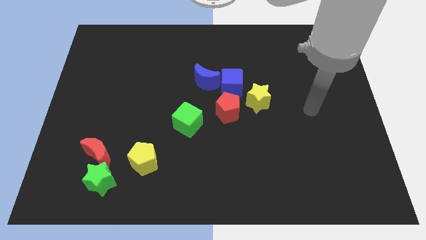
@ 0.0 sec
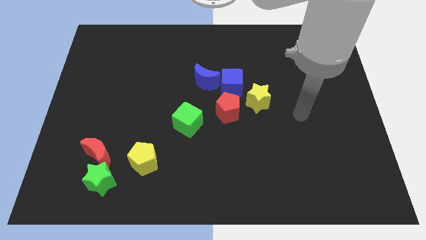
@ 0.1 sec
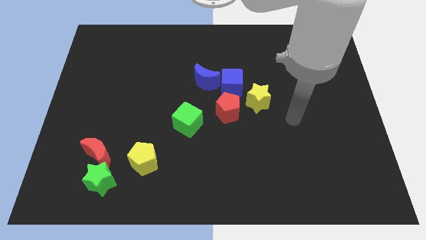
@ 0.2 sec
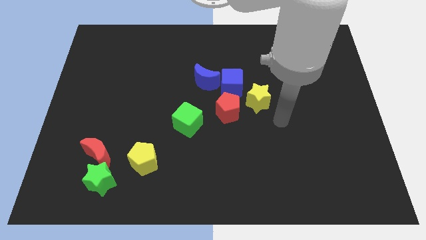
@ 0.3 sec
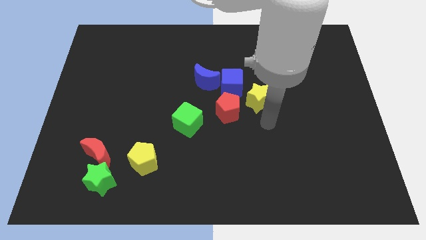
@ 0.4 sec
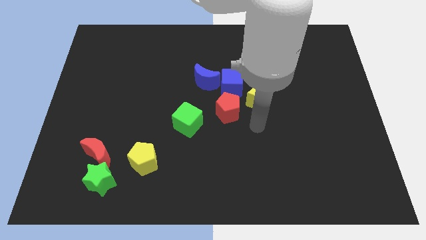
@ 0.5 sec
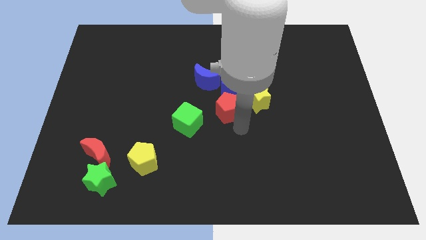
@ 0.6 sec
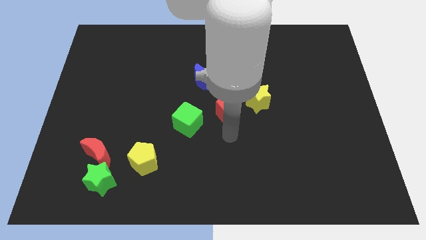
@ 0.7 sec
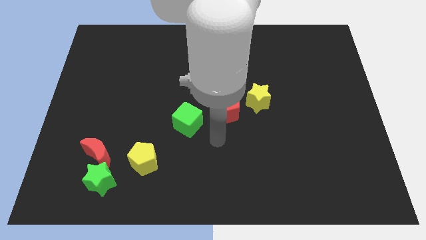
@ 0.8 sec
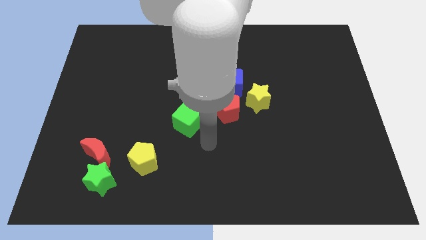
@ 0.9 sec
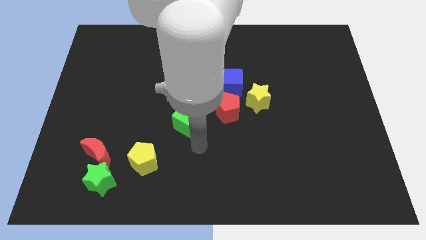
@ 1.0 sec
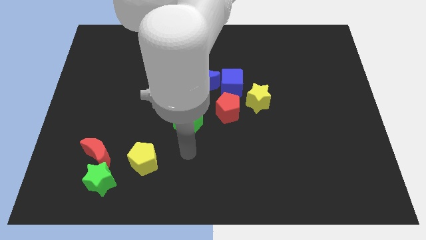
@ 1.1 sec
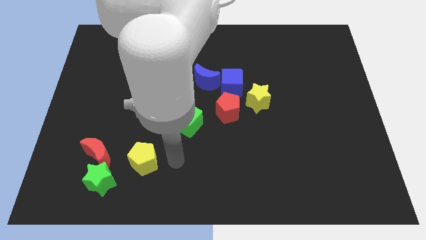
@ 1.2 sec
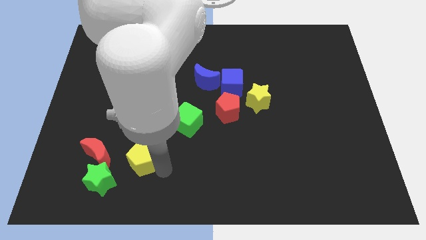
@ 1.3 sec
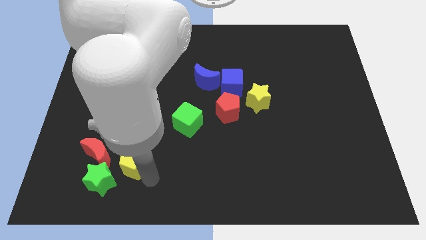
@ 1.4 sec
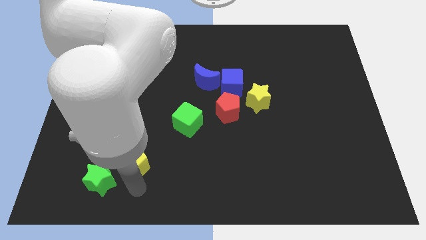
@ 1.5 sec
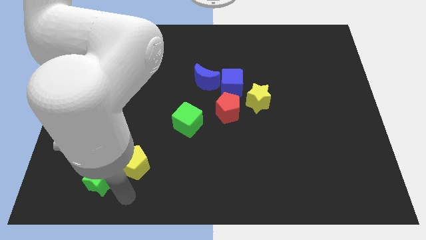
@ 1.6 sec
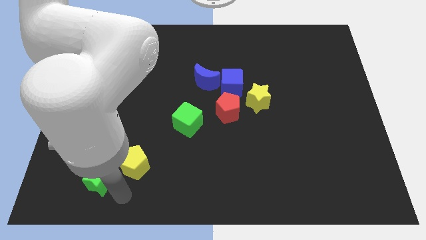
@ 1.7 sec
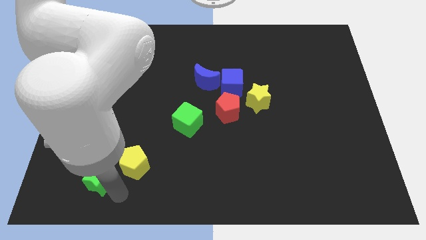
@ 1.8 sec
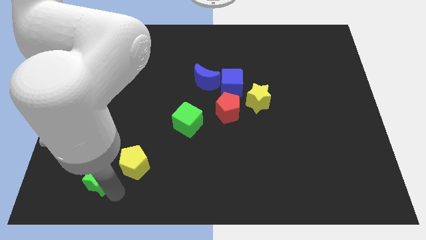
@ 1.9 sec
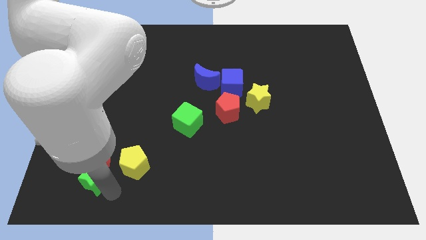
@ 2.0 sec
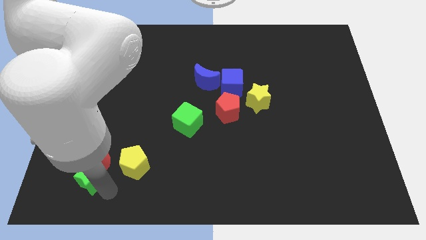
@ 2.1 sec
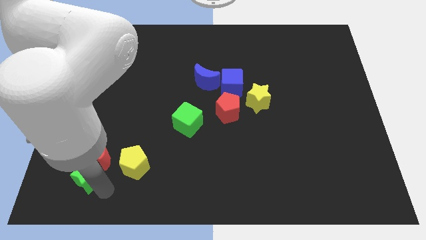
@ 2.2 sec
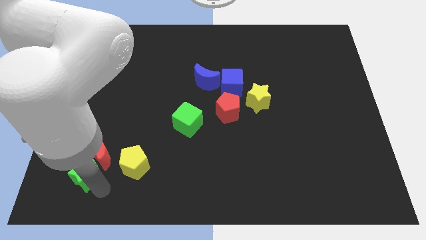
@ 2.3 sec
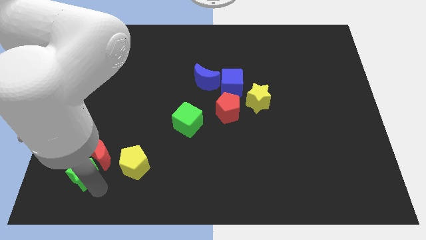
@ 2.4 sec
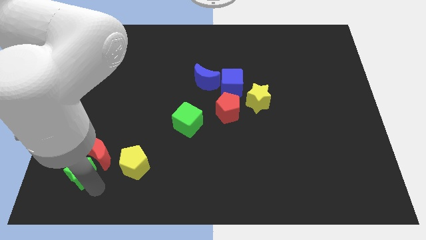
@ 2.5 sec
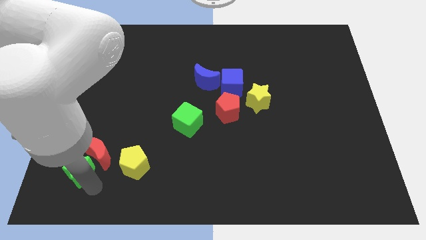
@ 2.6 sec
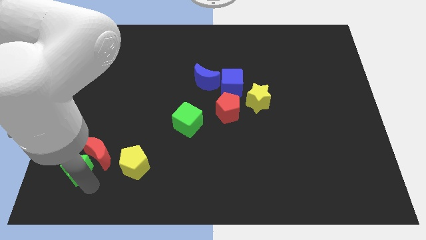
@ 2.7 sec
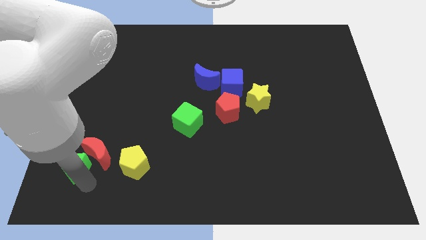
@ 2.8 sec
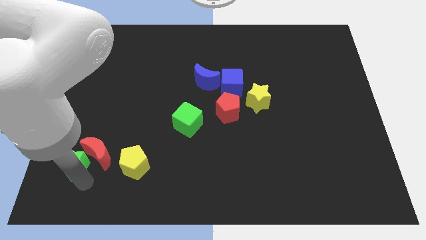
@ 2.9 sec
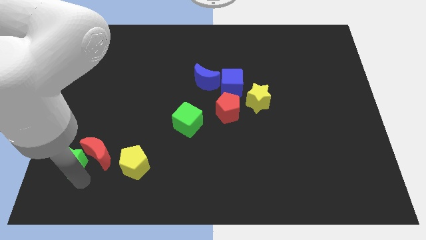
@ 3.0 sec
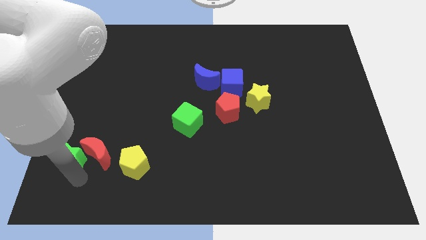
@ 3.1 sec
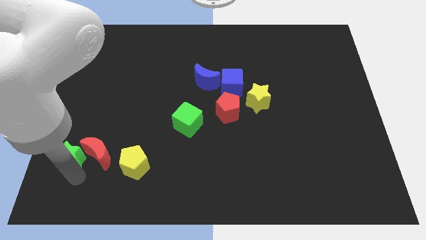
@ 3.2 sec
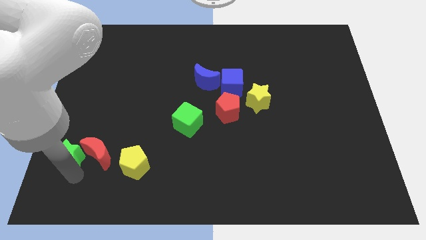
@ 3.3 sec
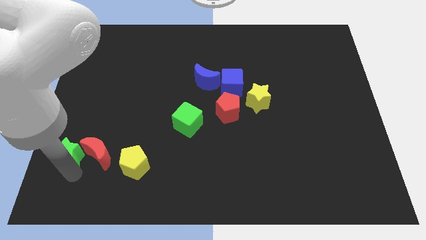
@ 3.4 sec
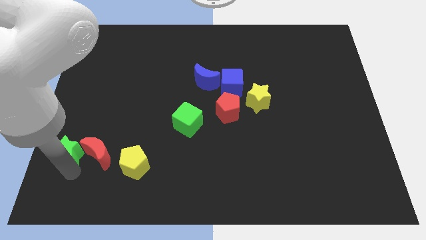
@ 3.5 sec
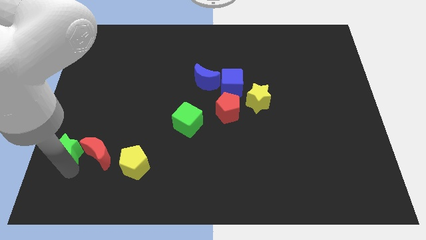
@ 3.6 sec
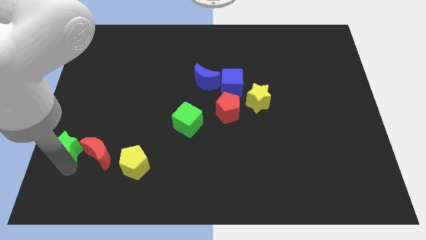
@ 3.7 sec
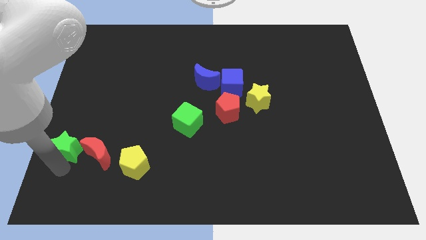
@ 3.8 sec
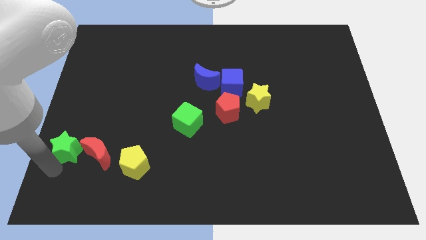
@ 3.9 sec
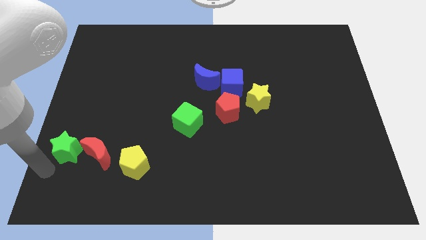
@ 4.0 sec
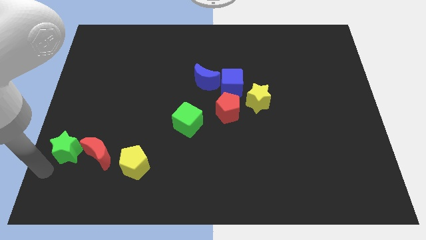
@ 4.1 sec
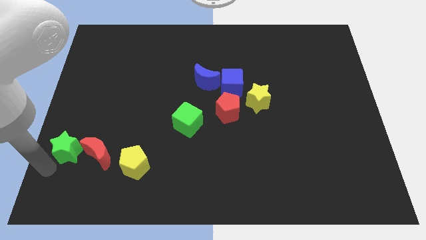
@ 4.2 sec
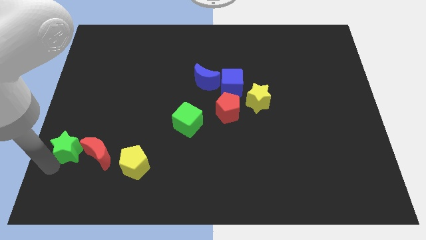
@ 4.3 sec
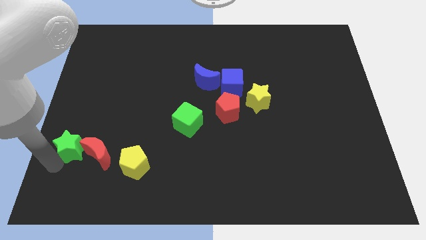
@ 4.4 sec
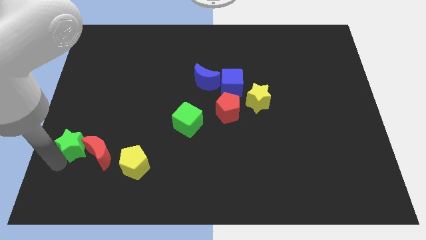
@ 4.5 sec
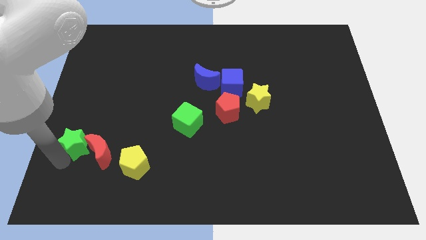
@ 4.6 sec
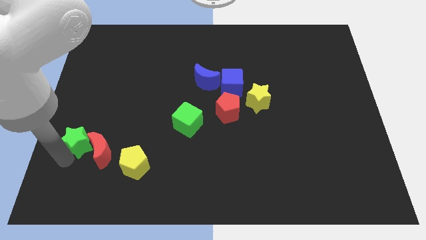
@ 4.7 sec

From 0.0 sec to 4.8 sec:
slightly slide the green star upwards

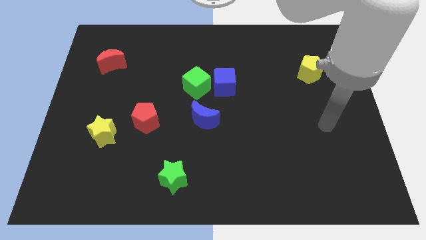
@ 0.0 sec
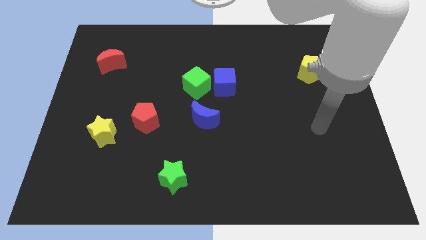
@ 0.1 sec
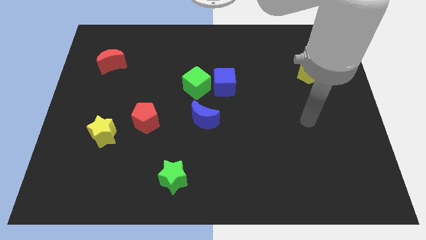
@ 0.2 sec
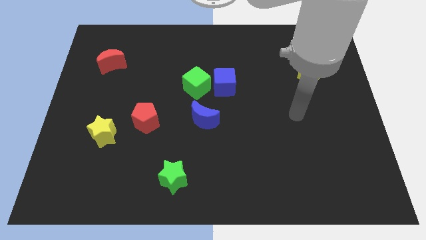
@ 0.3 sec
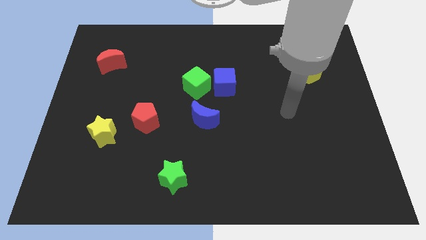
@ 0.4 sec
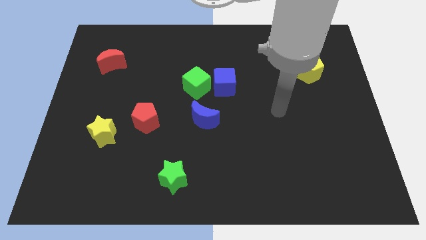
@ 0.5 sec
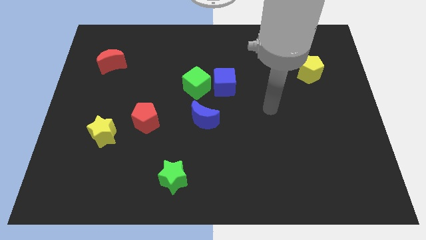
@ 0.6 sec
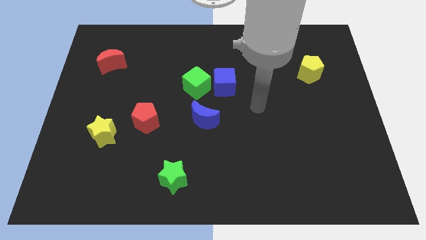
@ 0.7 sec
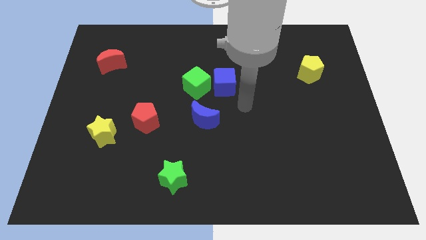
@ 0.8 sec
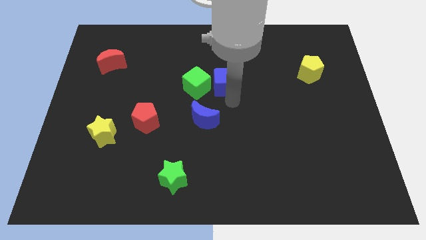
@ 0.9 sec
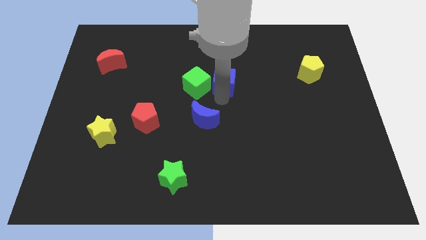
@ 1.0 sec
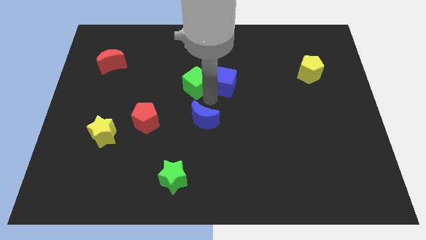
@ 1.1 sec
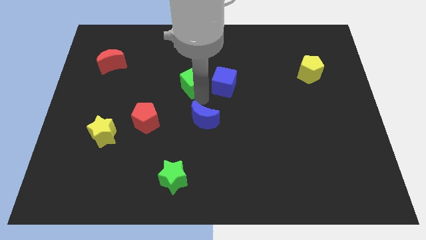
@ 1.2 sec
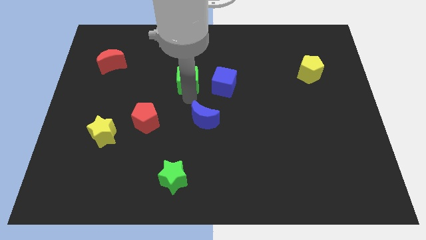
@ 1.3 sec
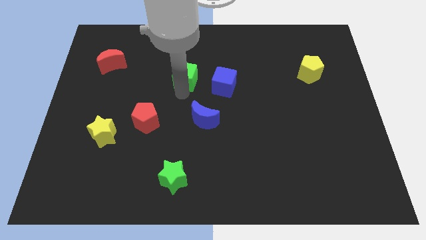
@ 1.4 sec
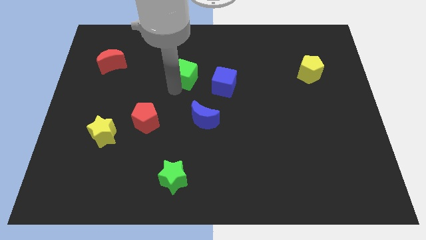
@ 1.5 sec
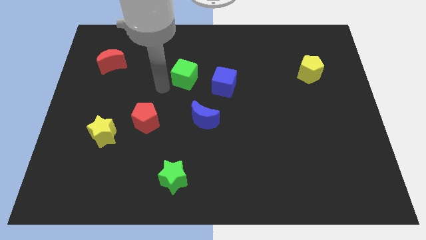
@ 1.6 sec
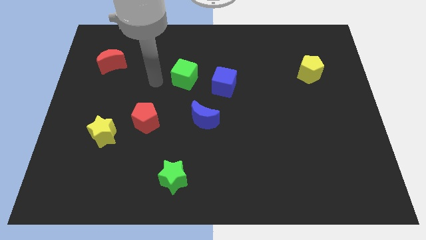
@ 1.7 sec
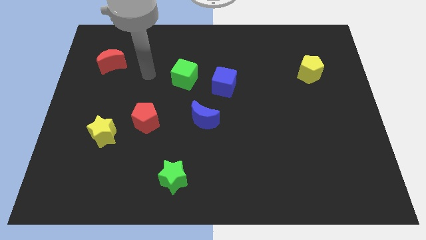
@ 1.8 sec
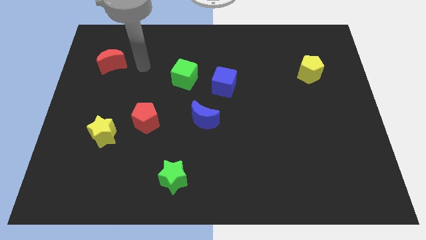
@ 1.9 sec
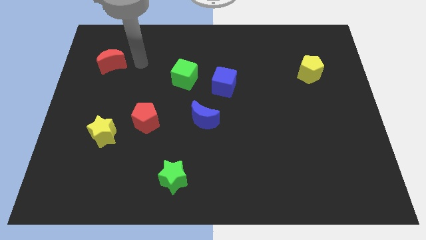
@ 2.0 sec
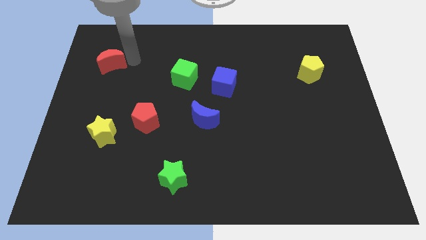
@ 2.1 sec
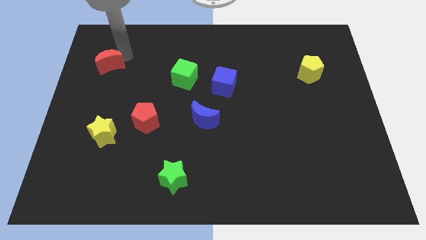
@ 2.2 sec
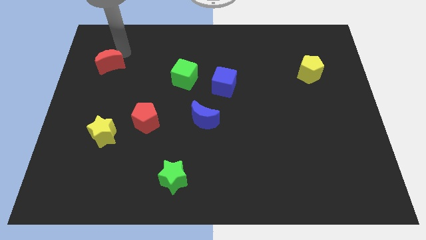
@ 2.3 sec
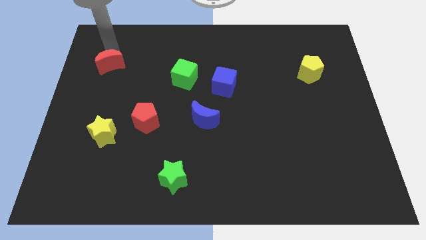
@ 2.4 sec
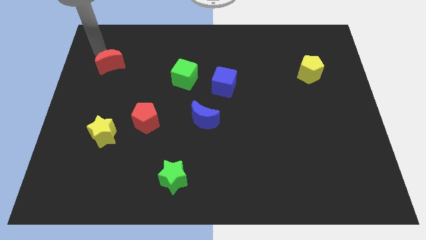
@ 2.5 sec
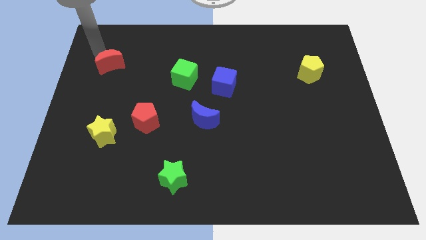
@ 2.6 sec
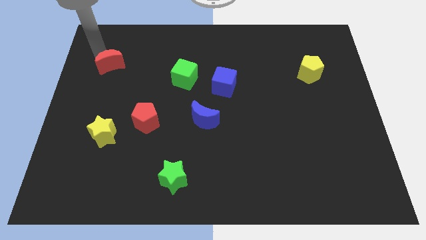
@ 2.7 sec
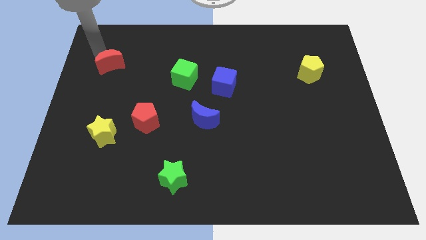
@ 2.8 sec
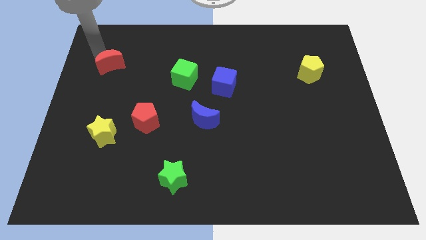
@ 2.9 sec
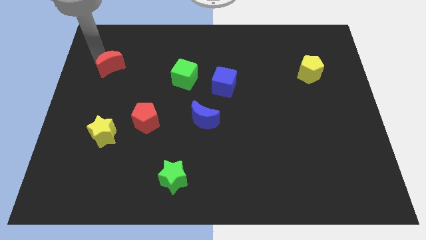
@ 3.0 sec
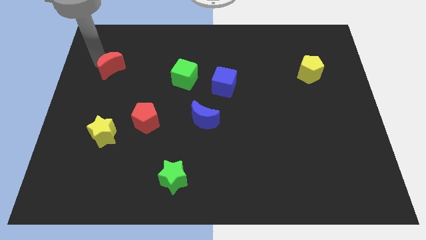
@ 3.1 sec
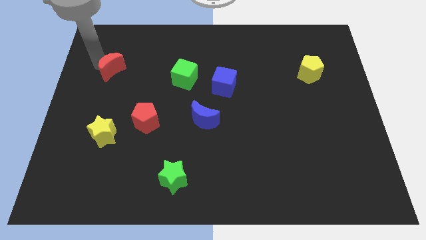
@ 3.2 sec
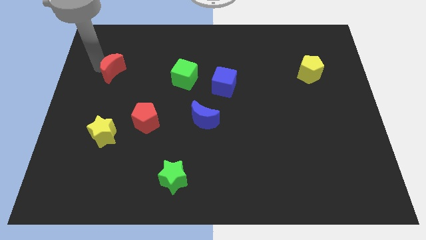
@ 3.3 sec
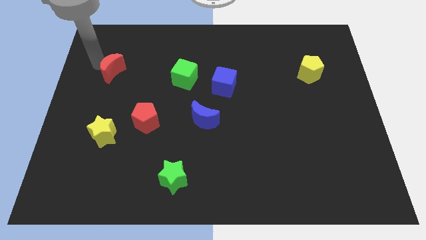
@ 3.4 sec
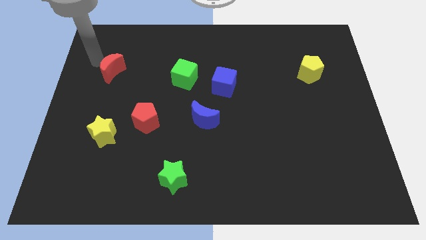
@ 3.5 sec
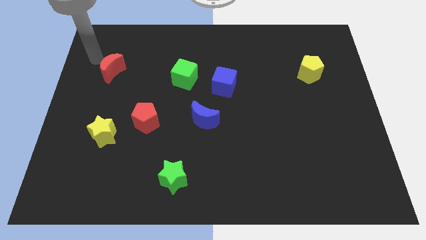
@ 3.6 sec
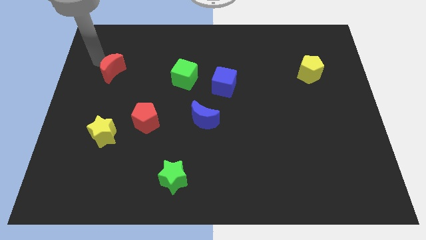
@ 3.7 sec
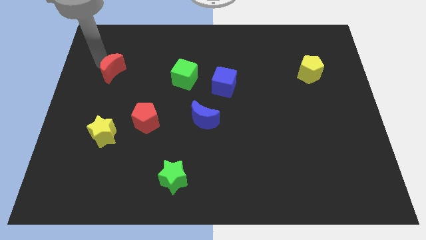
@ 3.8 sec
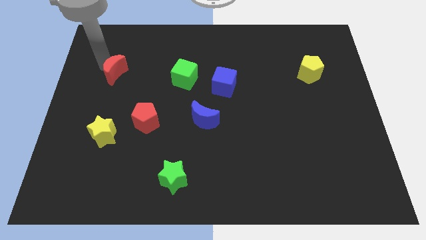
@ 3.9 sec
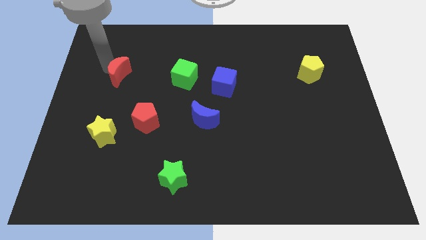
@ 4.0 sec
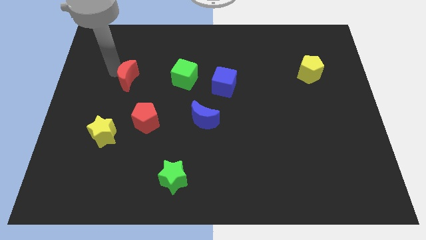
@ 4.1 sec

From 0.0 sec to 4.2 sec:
slide the red moon a bit diagonally down and to the right
